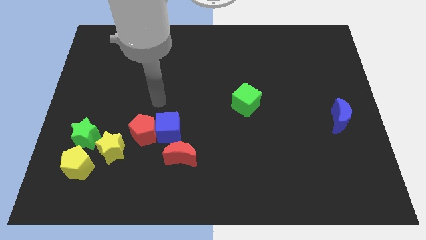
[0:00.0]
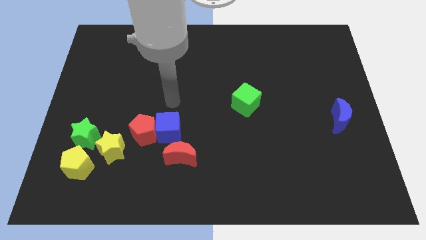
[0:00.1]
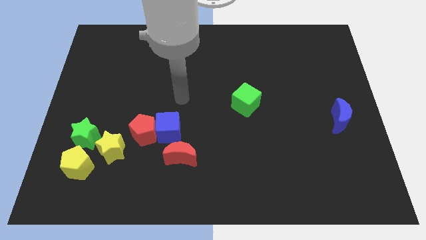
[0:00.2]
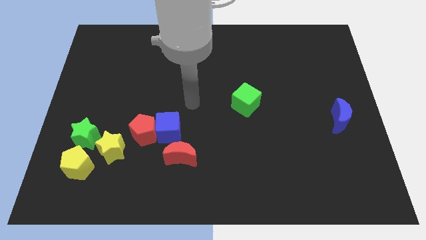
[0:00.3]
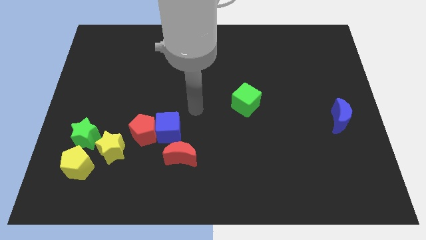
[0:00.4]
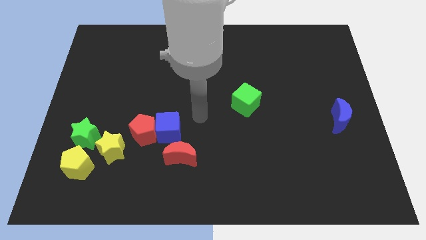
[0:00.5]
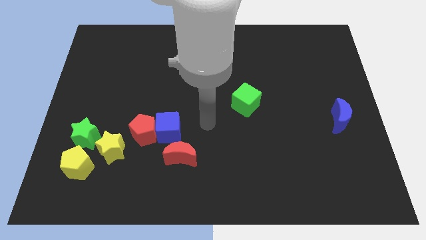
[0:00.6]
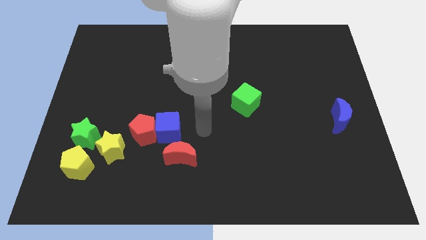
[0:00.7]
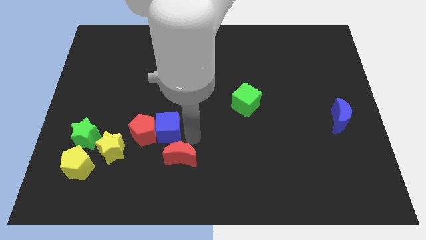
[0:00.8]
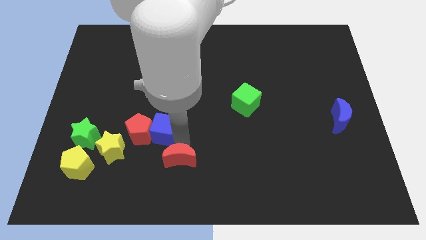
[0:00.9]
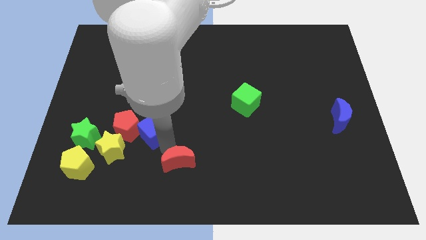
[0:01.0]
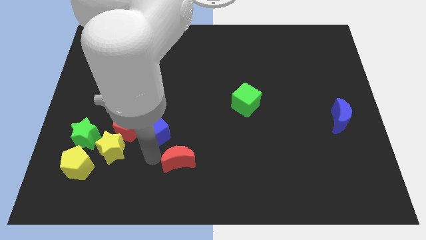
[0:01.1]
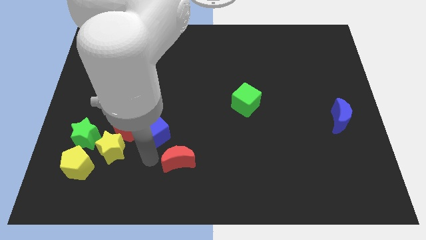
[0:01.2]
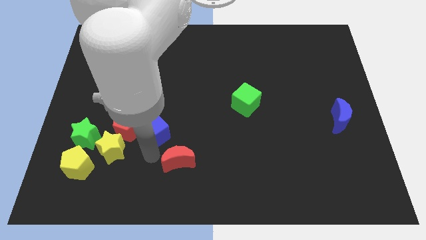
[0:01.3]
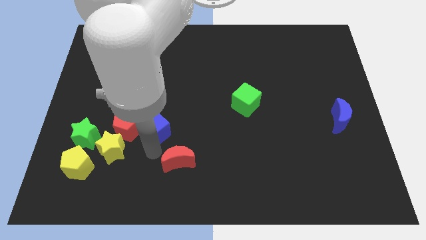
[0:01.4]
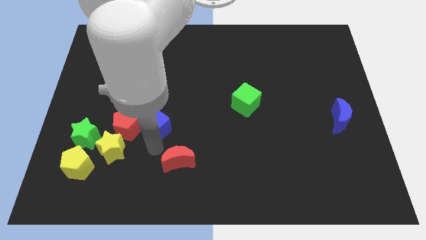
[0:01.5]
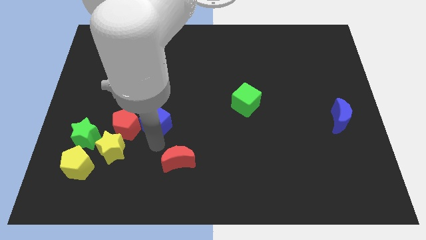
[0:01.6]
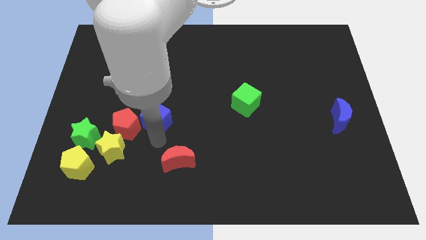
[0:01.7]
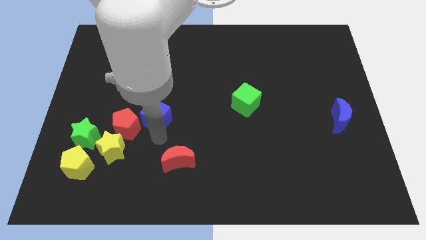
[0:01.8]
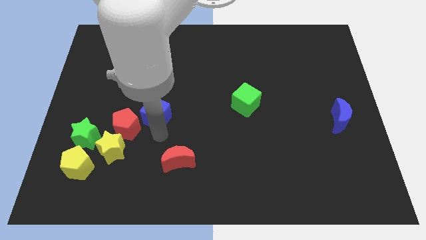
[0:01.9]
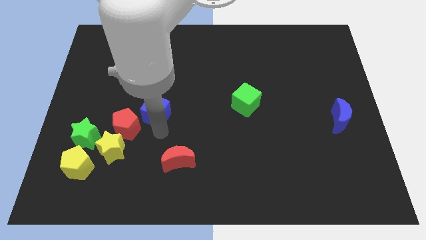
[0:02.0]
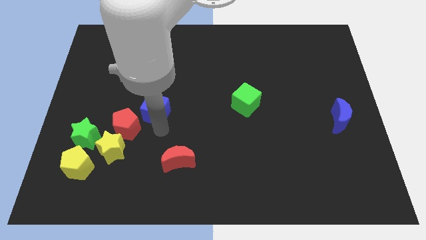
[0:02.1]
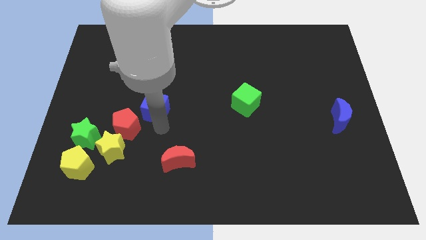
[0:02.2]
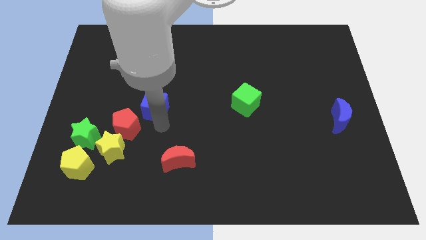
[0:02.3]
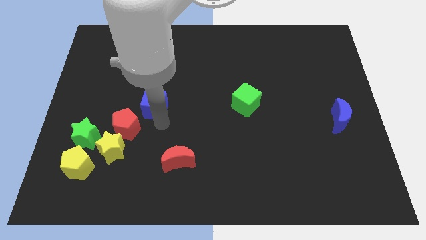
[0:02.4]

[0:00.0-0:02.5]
pull the blue cube apart from the red pentagon and red moon

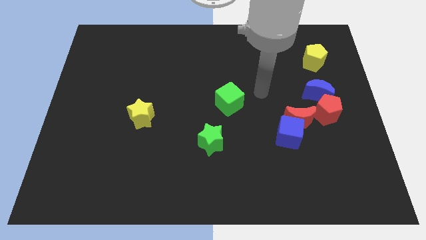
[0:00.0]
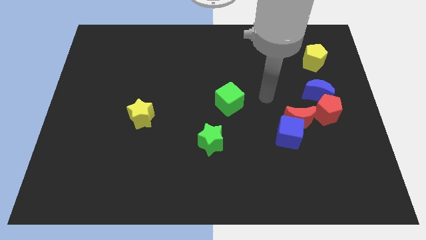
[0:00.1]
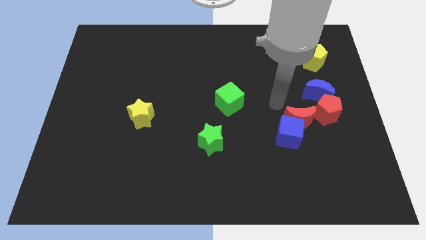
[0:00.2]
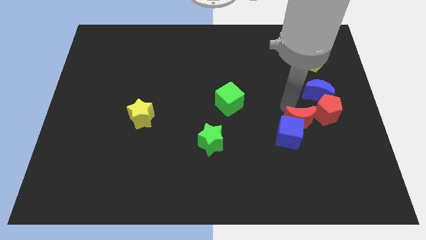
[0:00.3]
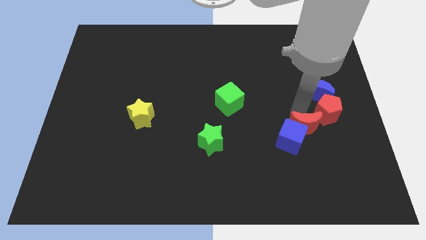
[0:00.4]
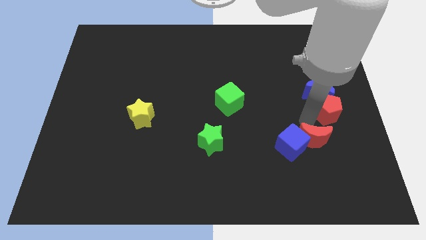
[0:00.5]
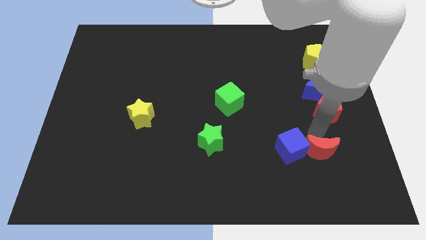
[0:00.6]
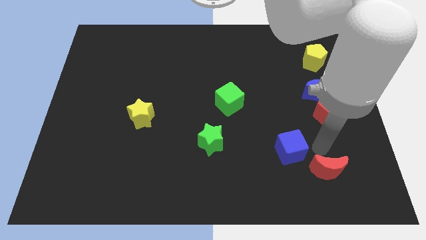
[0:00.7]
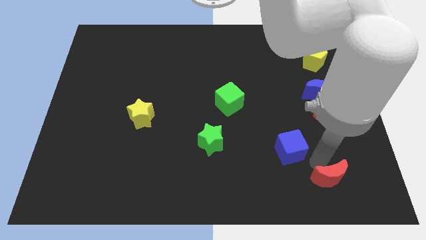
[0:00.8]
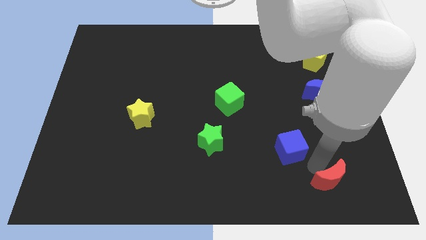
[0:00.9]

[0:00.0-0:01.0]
move the blue cube away from the red moon

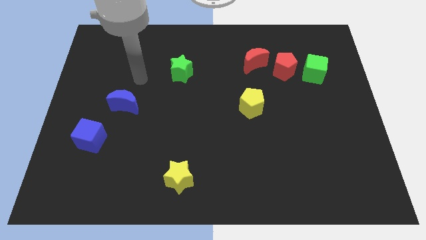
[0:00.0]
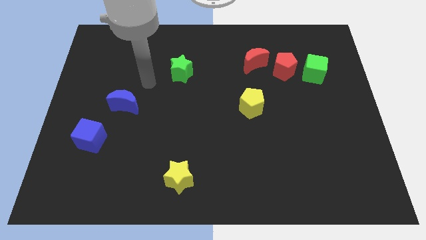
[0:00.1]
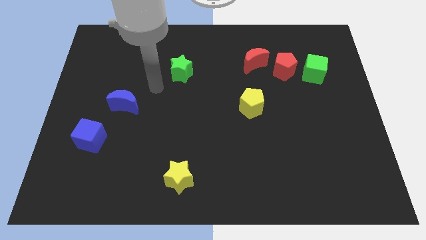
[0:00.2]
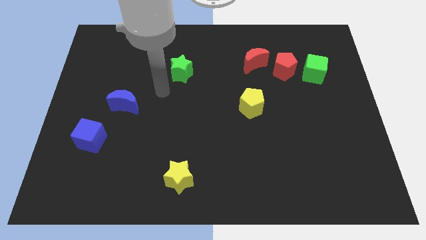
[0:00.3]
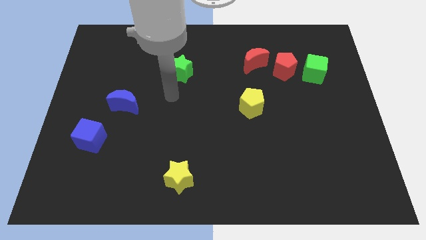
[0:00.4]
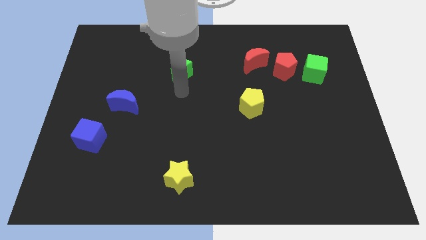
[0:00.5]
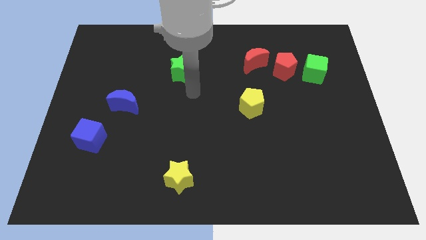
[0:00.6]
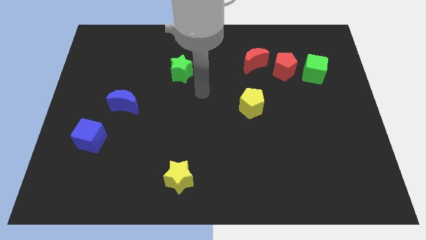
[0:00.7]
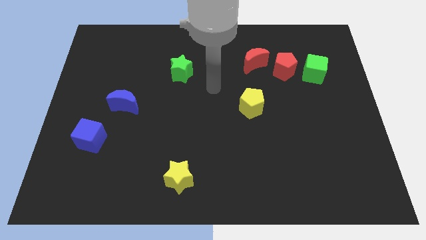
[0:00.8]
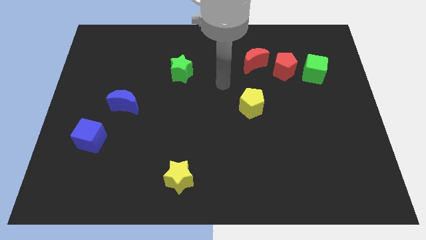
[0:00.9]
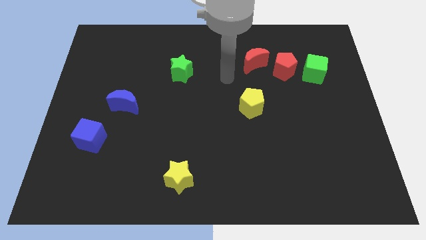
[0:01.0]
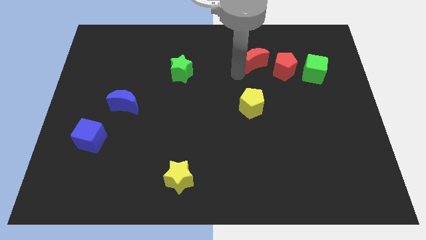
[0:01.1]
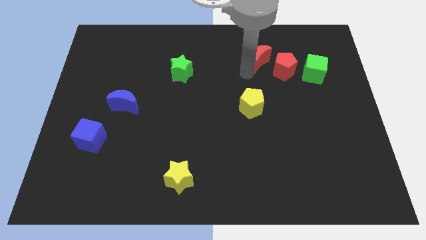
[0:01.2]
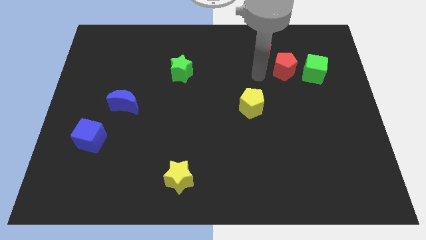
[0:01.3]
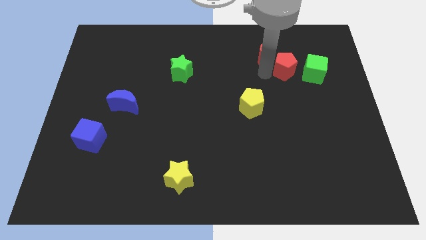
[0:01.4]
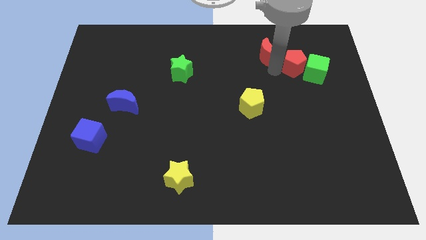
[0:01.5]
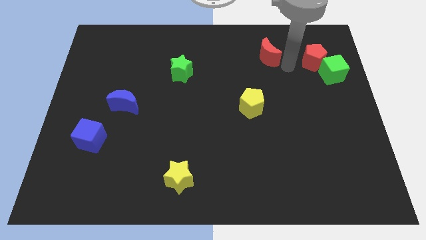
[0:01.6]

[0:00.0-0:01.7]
move the red moon away from the red pentagon

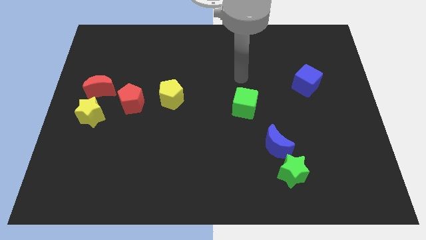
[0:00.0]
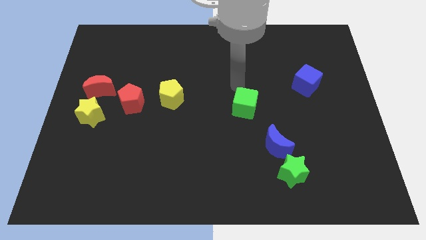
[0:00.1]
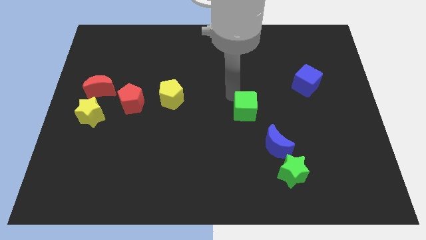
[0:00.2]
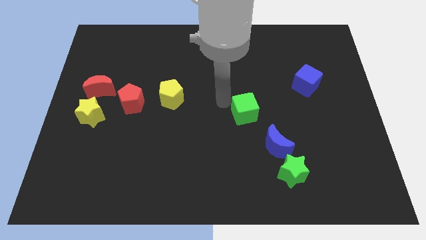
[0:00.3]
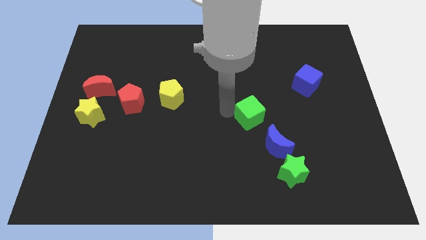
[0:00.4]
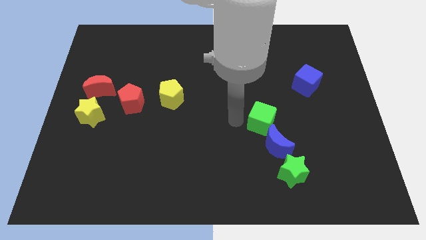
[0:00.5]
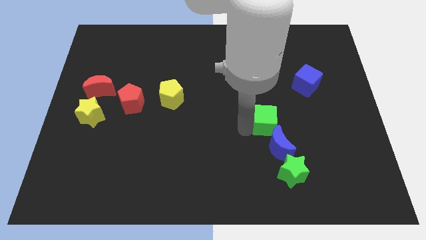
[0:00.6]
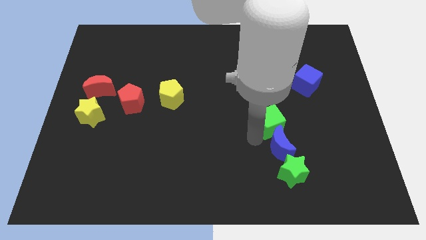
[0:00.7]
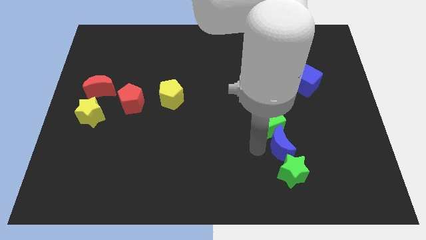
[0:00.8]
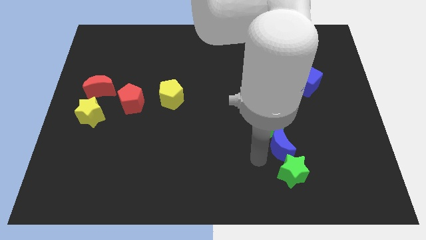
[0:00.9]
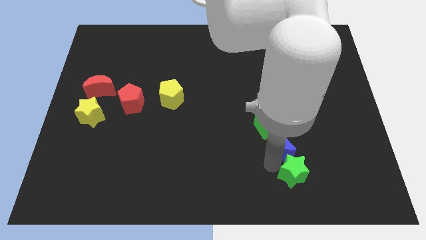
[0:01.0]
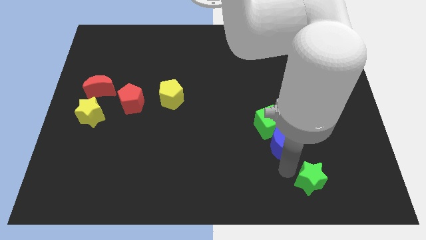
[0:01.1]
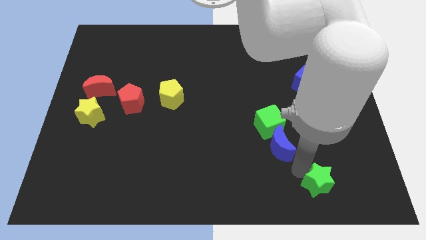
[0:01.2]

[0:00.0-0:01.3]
move the blue moon away from the green star

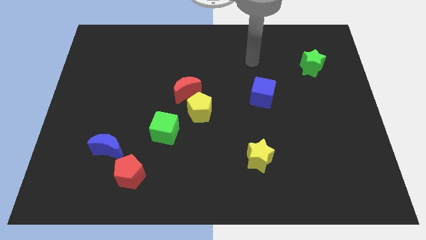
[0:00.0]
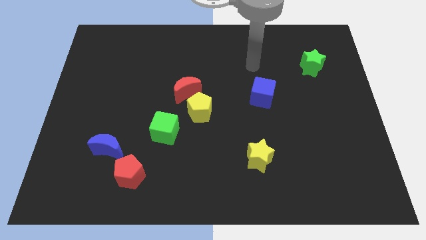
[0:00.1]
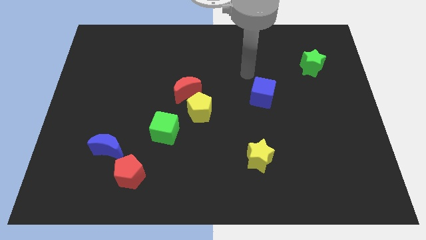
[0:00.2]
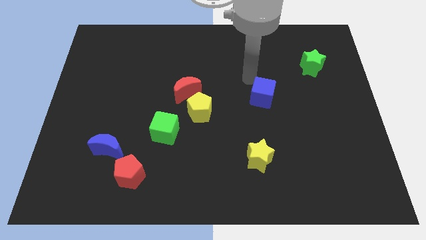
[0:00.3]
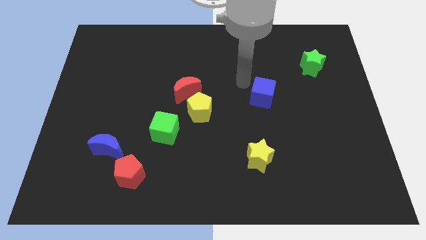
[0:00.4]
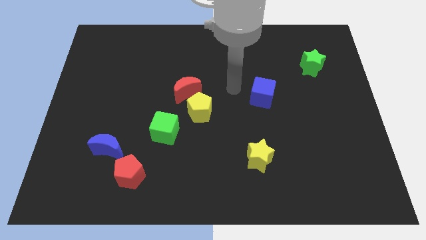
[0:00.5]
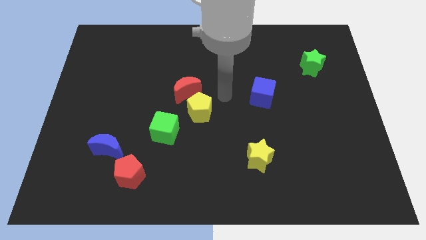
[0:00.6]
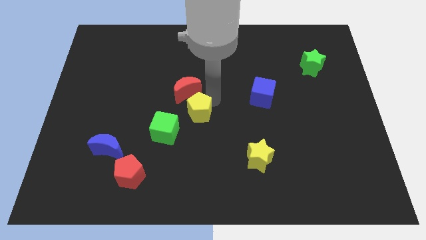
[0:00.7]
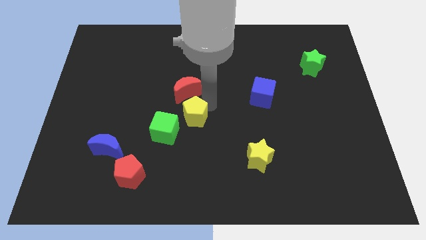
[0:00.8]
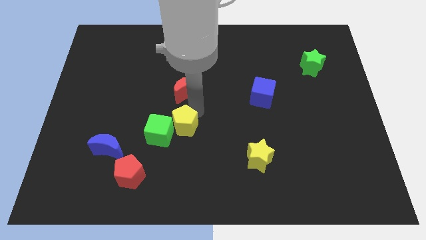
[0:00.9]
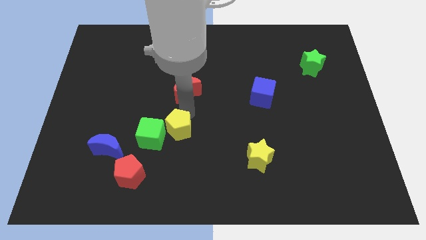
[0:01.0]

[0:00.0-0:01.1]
move the red moon away from the yellow pentagon

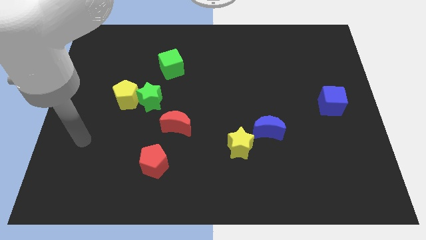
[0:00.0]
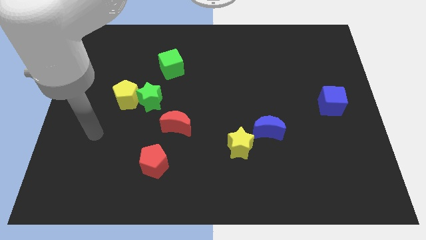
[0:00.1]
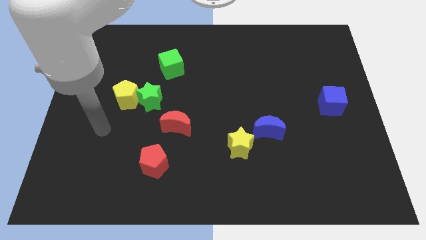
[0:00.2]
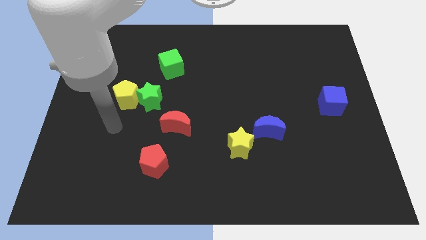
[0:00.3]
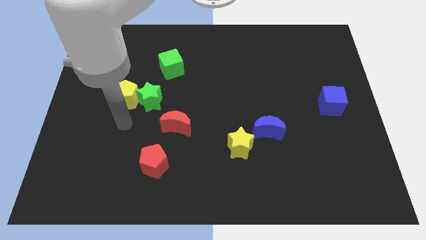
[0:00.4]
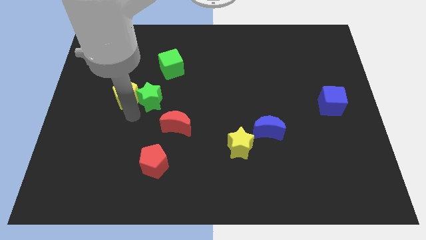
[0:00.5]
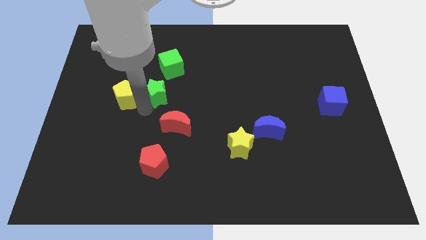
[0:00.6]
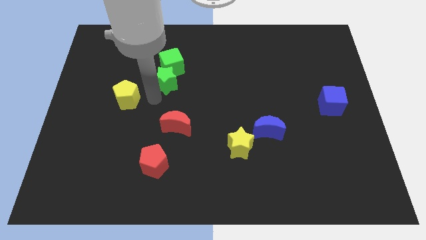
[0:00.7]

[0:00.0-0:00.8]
separate the yellow pentagon from the green star

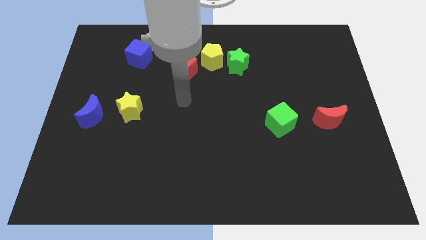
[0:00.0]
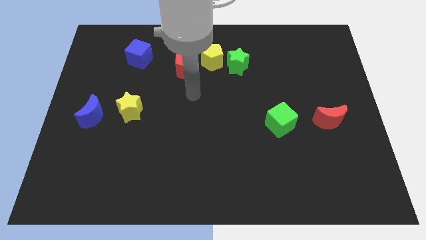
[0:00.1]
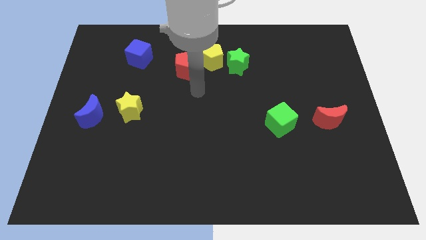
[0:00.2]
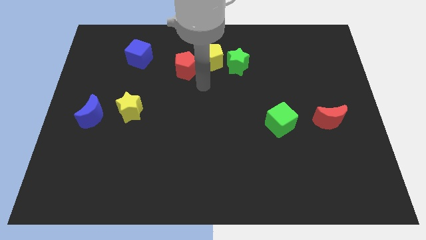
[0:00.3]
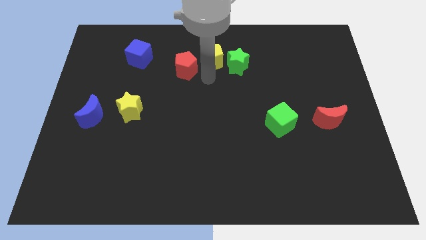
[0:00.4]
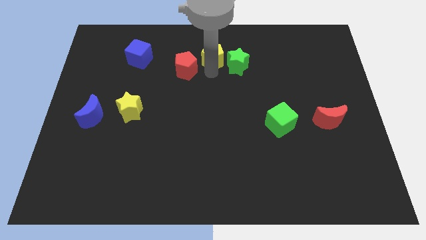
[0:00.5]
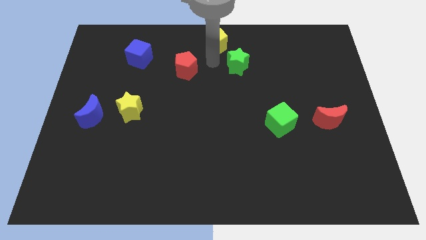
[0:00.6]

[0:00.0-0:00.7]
pull the green star apart from the yellow pentagon

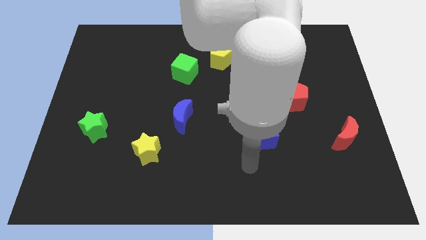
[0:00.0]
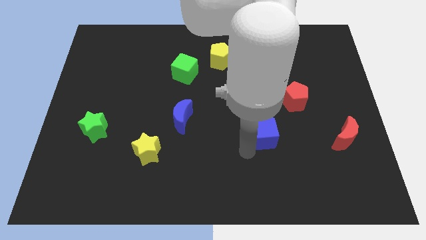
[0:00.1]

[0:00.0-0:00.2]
separate the green cube from the yellow pentagon
